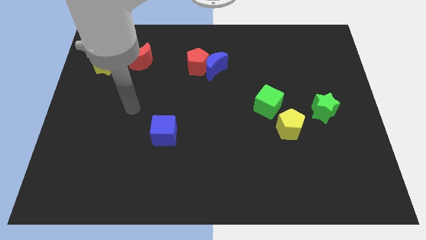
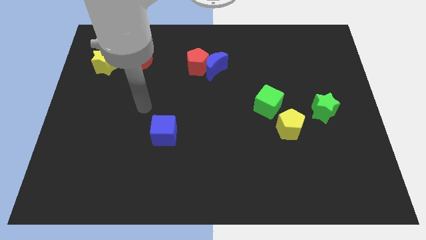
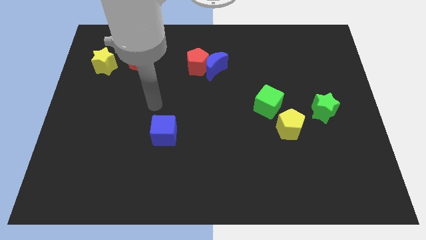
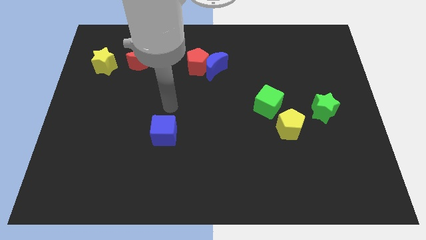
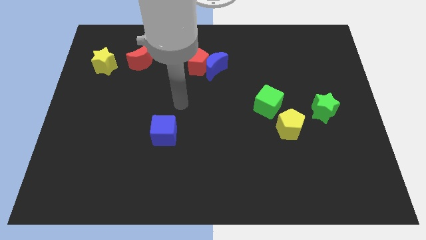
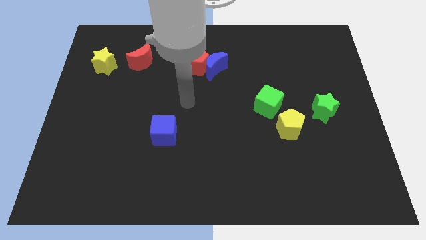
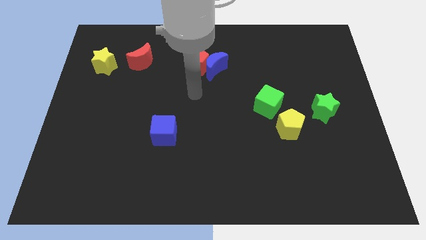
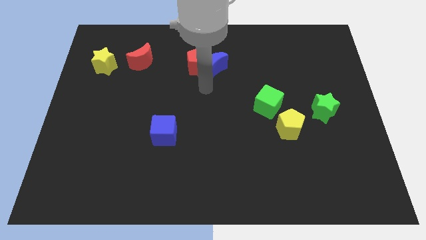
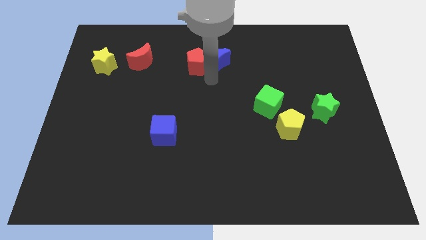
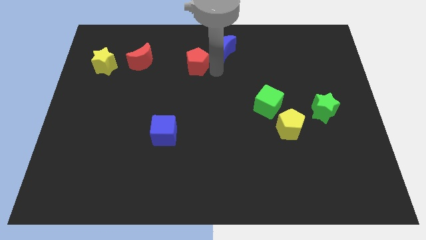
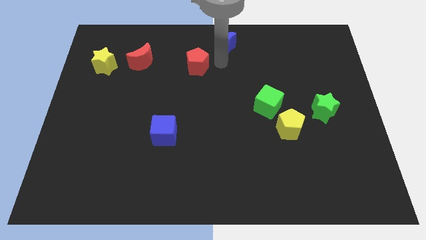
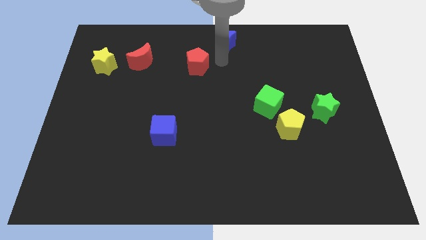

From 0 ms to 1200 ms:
separate the red pentagon from the blue moon

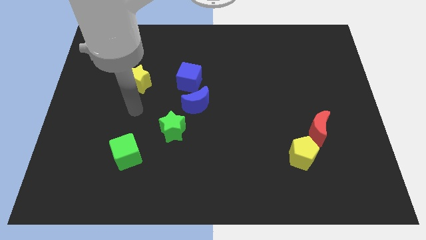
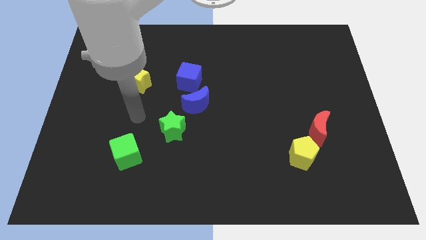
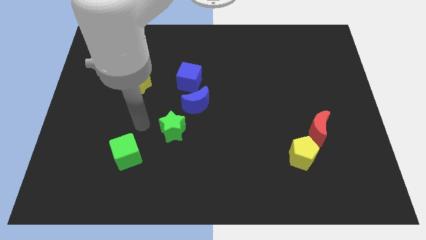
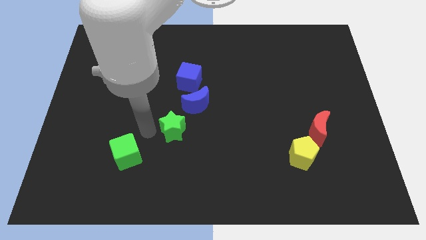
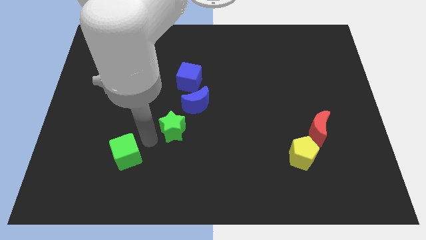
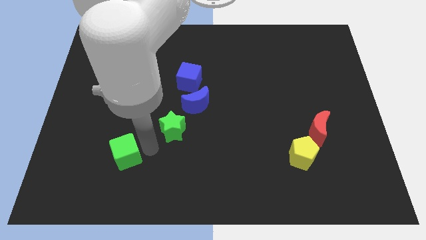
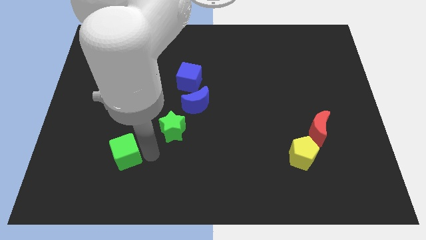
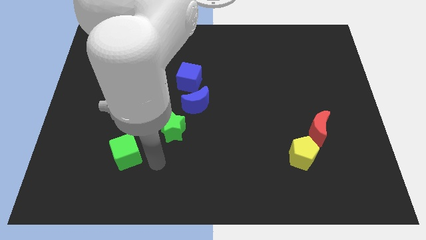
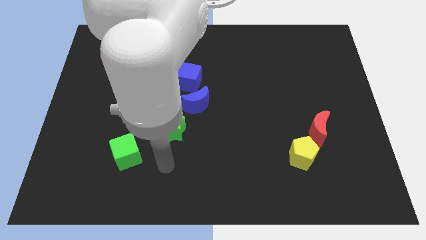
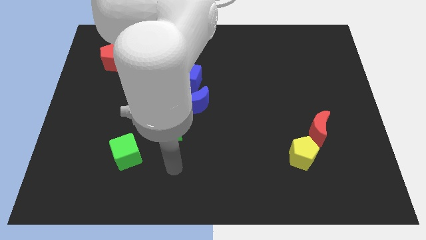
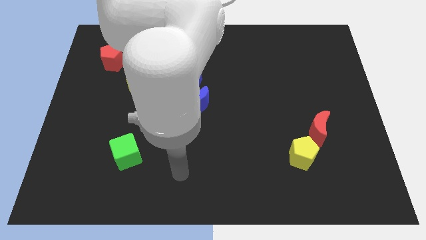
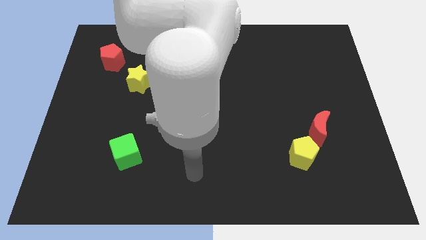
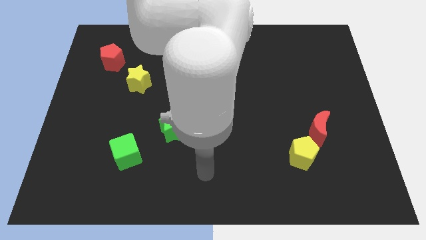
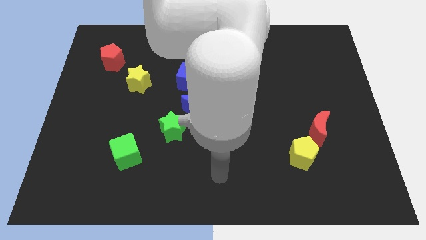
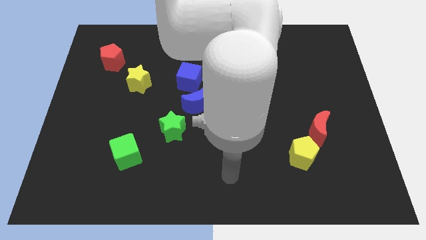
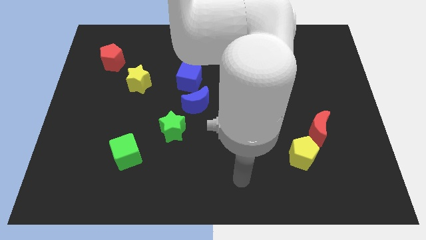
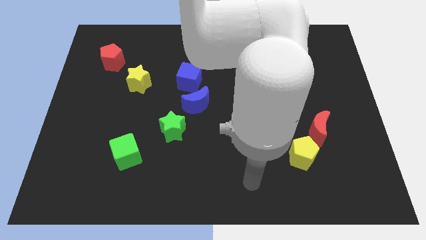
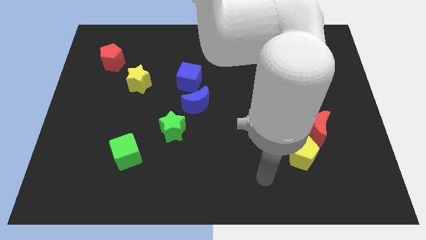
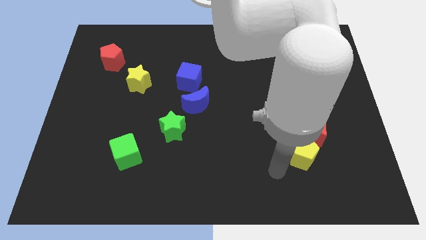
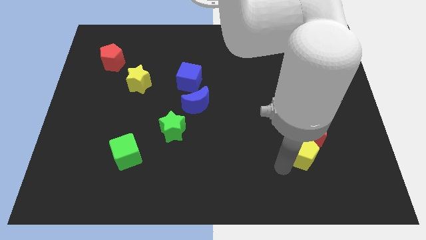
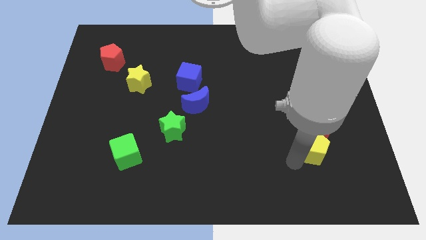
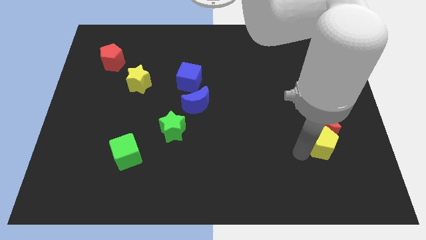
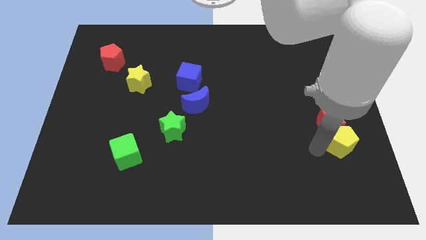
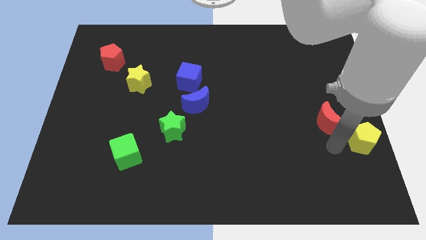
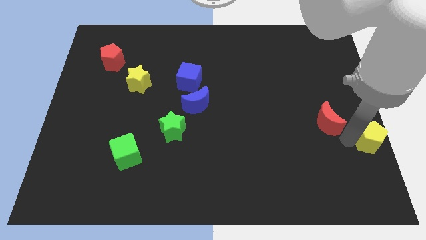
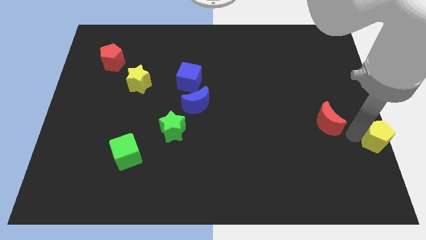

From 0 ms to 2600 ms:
move the red moon away from the yellow pentagon

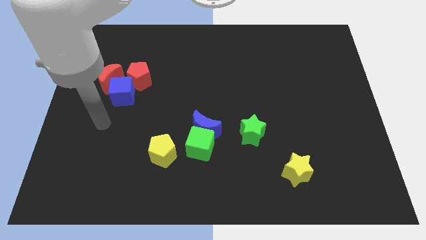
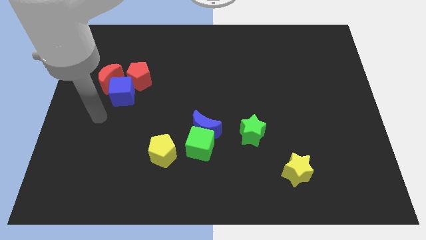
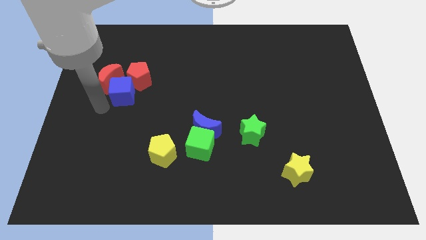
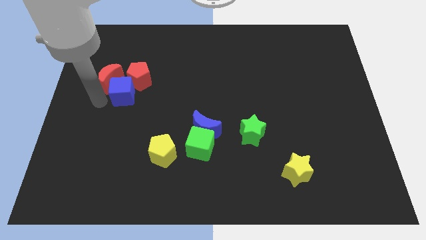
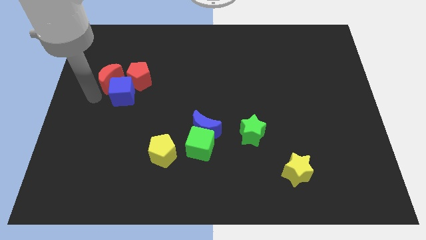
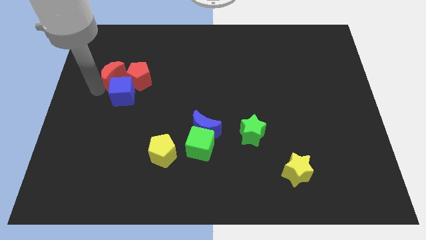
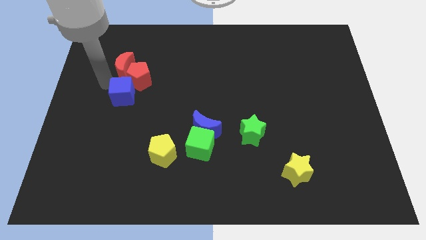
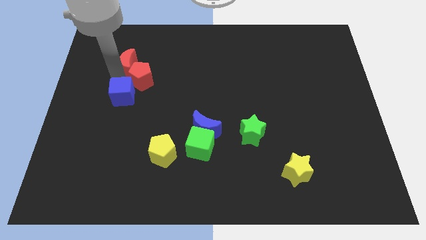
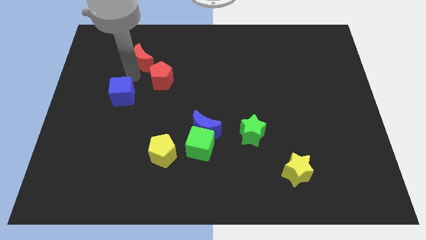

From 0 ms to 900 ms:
move the blue cube away from the red moon and red pentagon

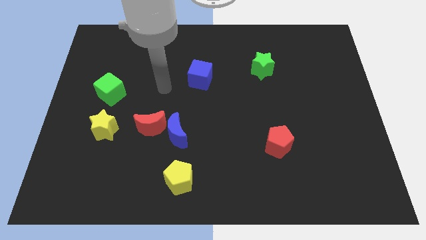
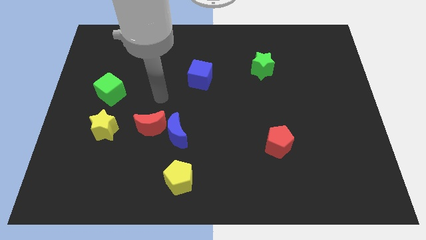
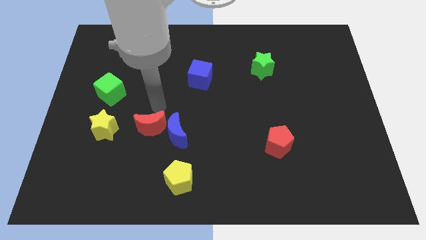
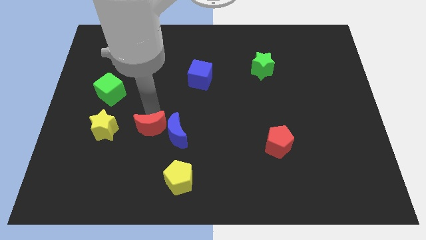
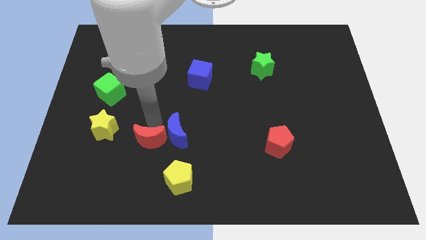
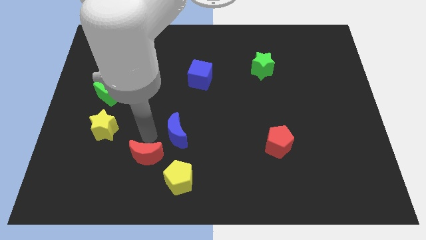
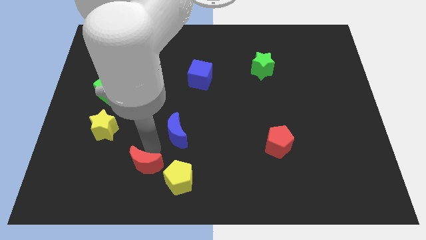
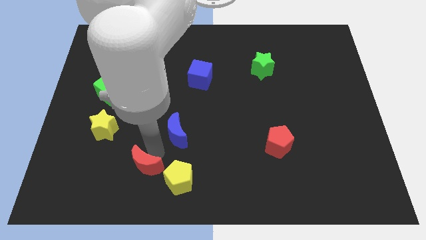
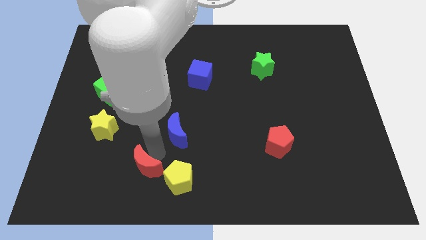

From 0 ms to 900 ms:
pull the blue moon apart from the red moon

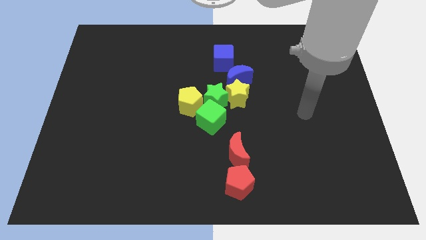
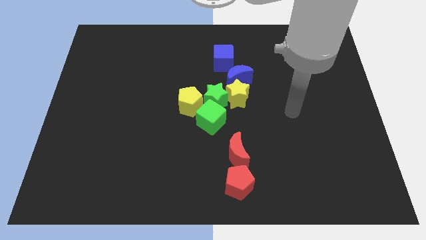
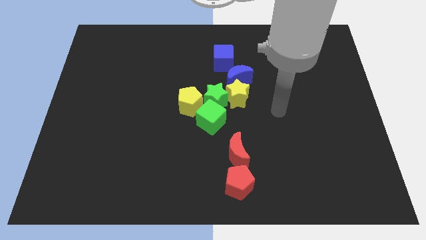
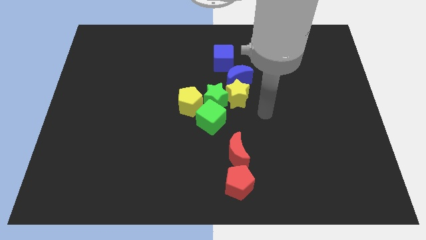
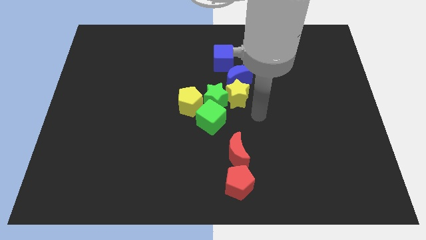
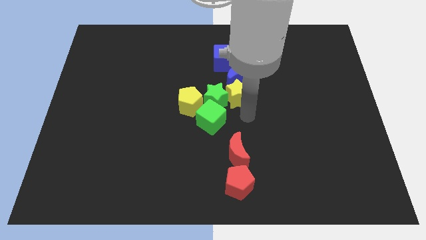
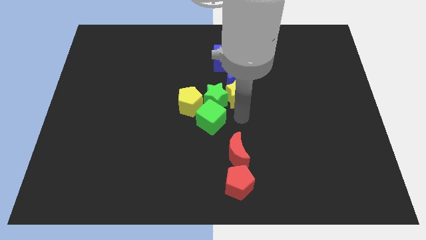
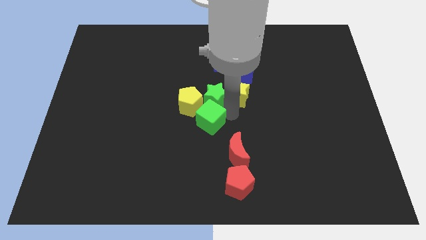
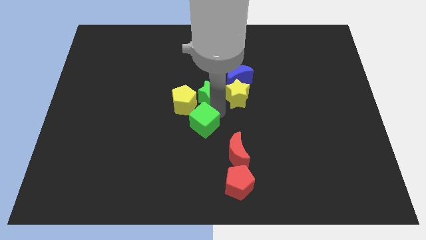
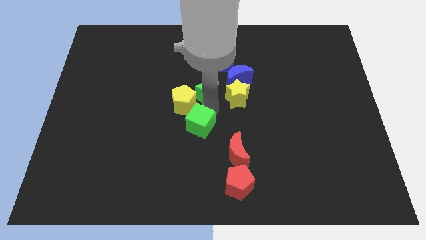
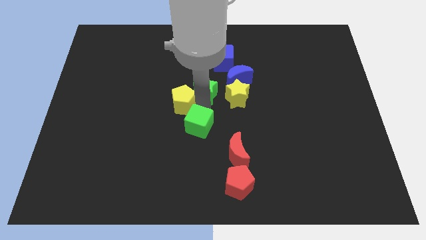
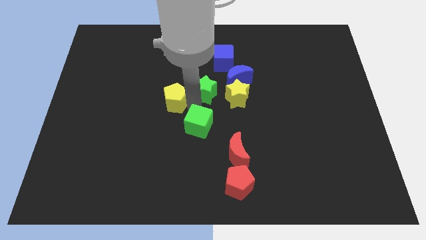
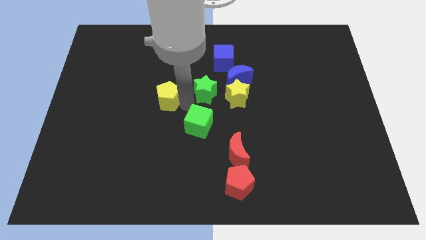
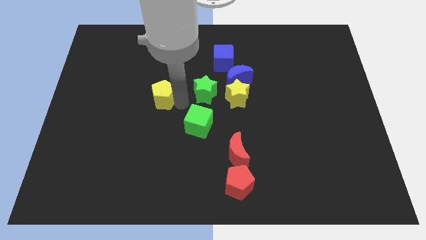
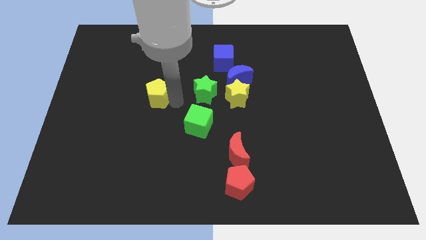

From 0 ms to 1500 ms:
pull the yellow pentagon apart from the green star and green cube

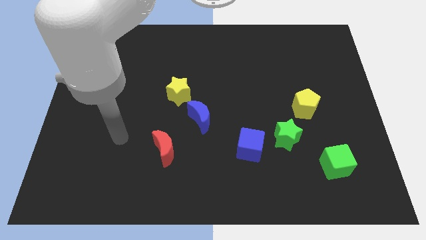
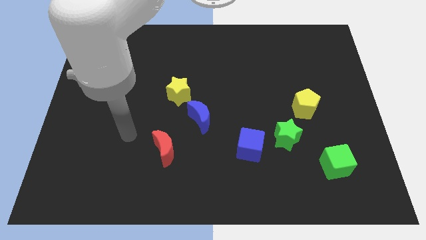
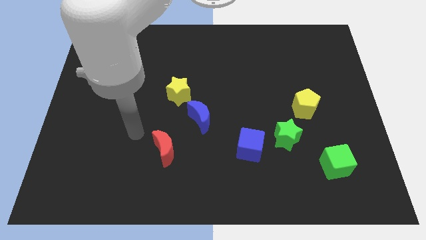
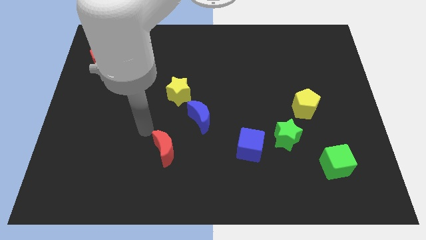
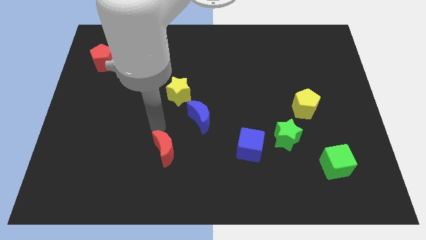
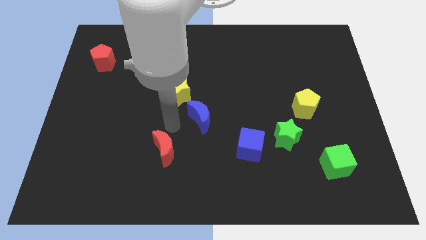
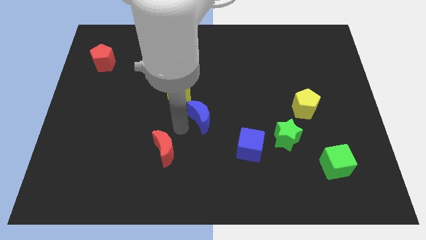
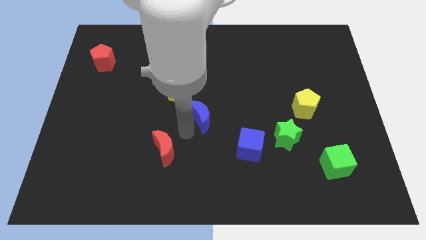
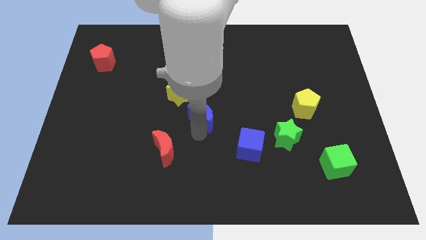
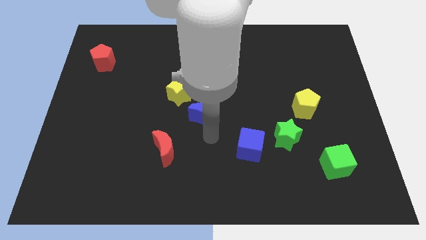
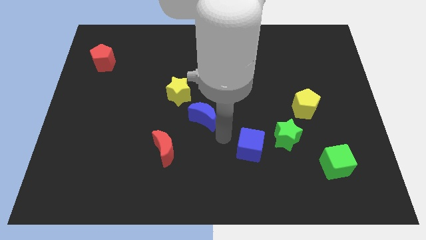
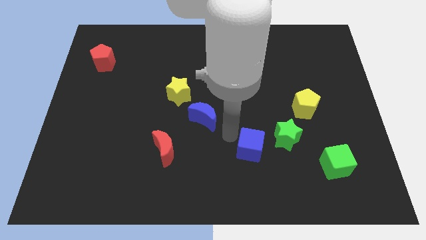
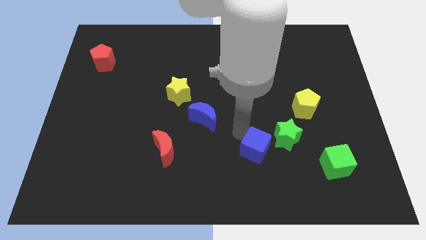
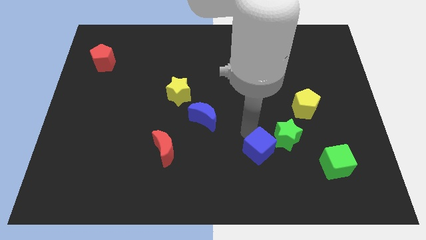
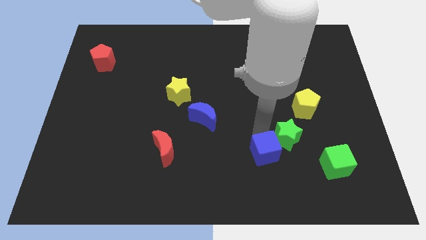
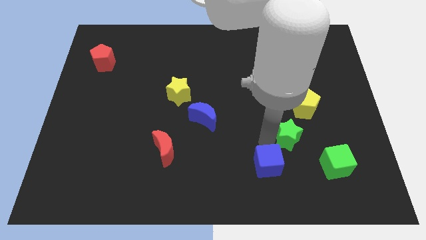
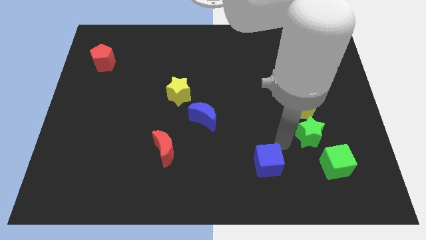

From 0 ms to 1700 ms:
move the blue cube away from the green star

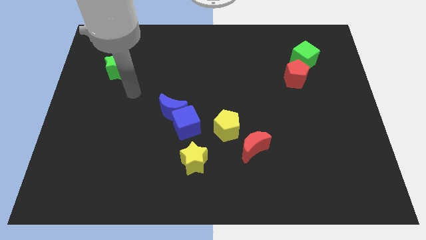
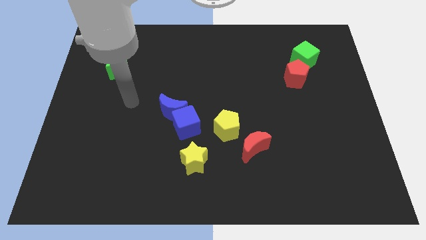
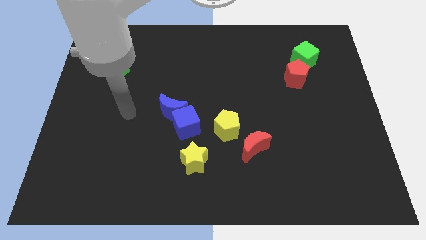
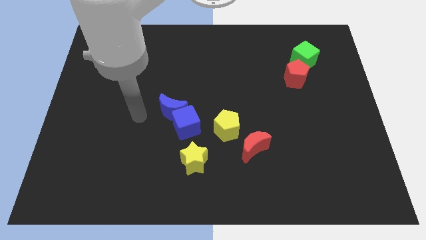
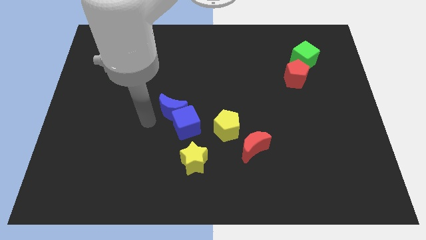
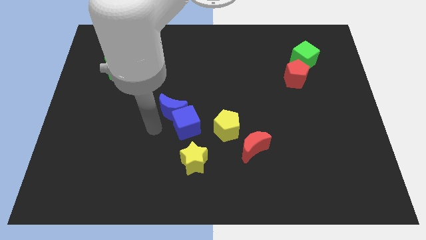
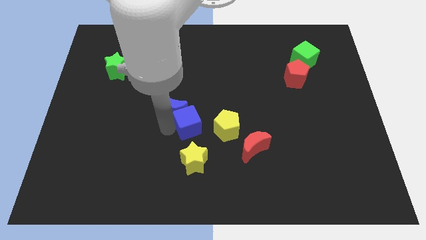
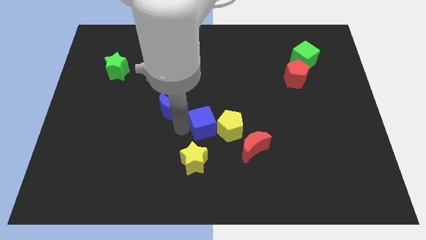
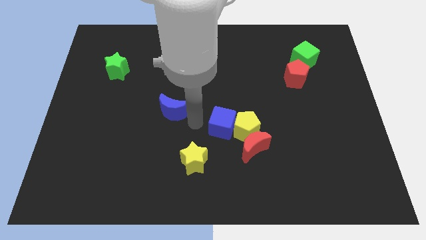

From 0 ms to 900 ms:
separate the blue moon from the blue cube
